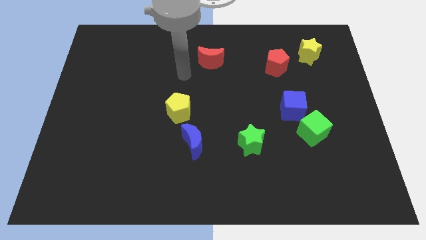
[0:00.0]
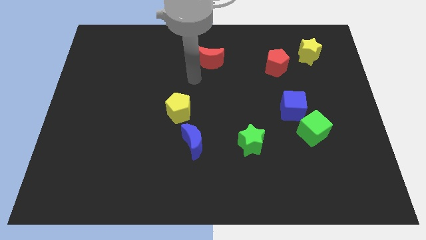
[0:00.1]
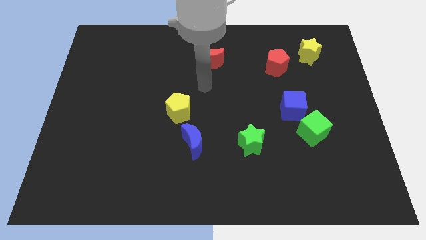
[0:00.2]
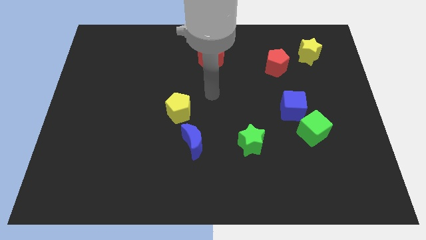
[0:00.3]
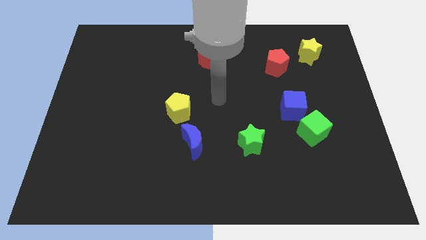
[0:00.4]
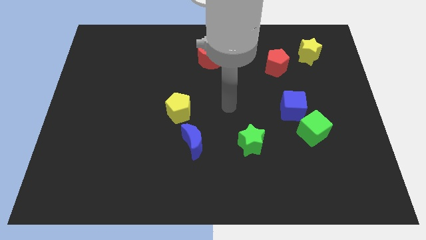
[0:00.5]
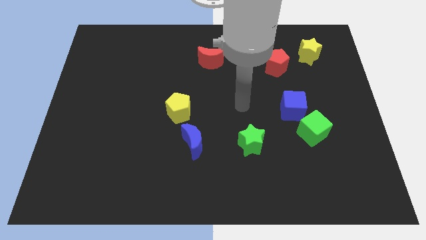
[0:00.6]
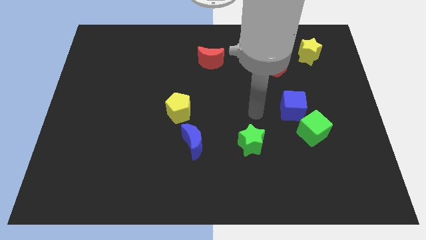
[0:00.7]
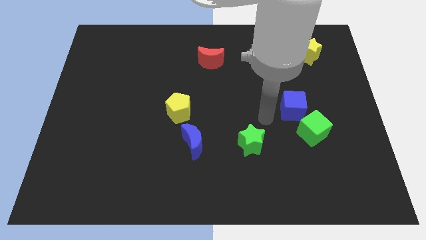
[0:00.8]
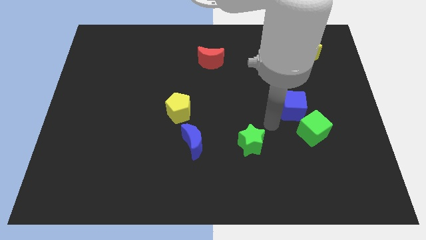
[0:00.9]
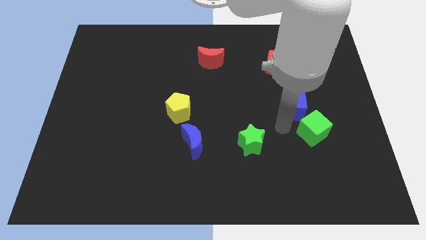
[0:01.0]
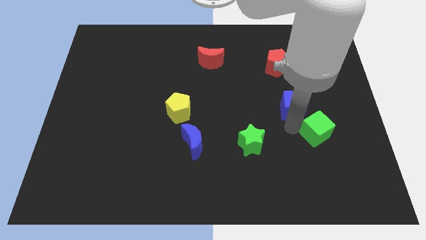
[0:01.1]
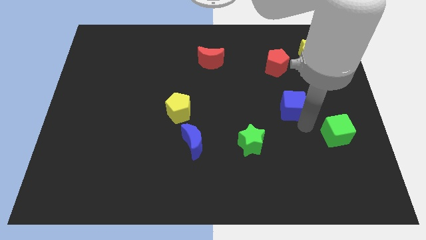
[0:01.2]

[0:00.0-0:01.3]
separate the blue cube from the green cube

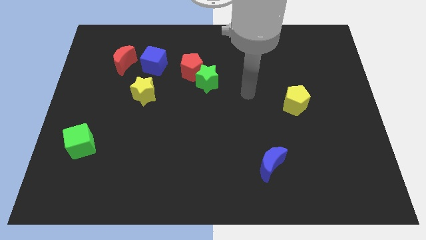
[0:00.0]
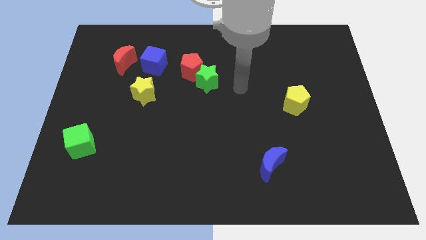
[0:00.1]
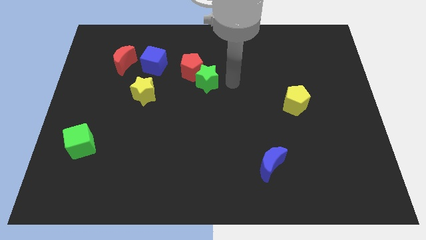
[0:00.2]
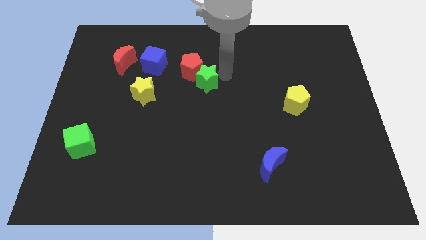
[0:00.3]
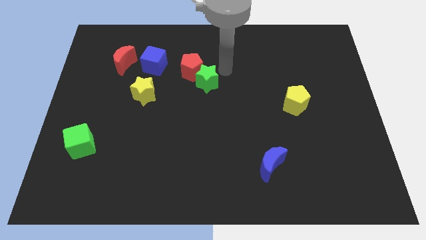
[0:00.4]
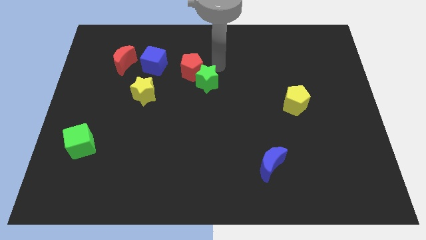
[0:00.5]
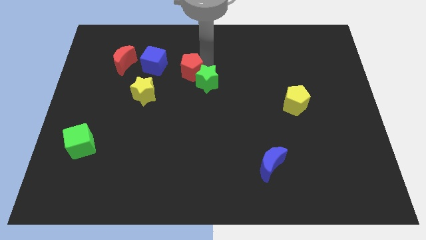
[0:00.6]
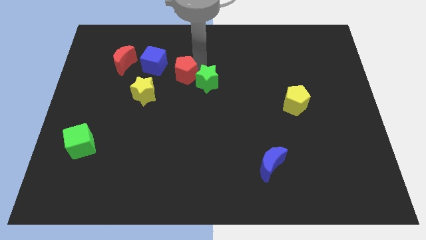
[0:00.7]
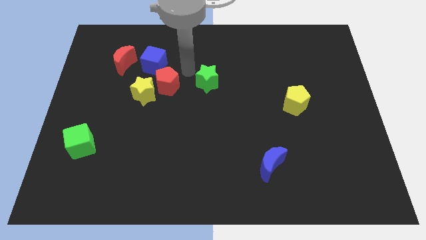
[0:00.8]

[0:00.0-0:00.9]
pull the green star apart from the red pentagon

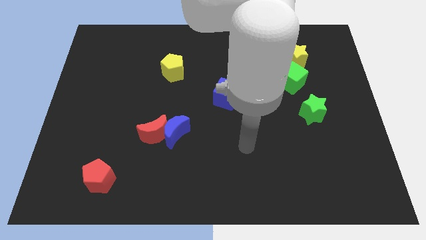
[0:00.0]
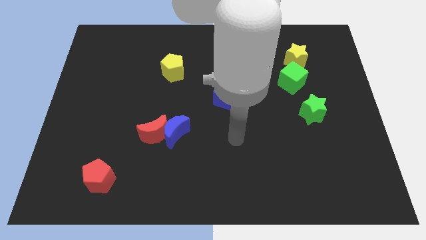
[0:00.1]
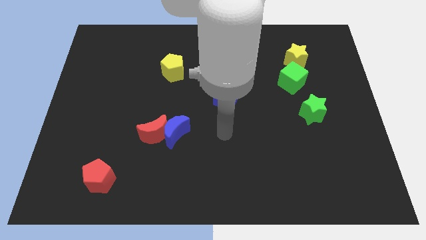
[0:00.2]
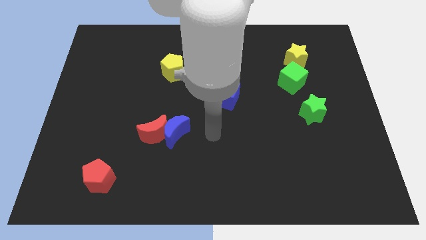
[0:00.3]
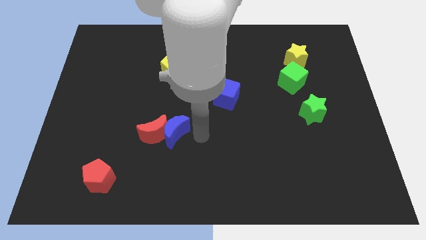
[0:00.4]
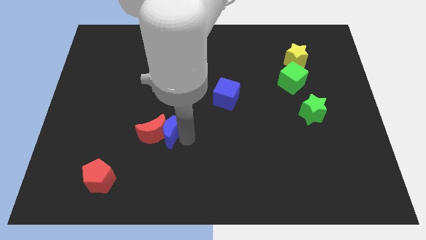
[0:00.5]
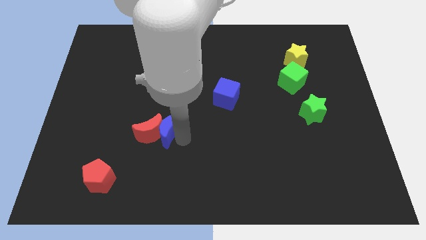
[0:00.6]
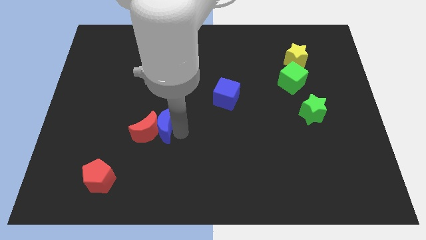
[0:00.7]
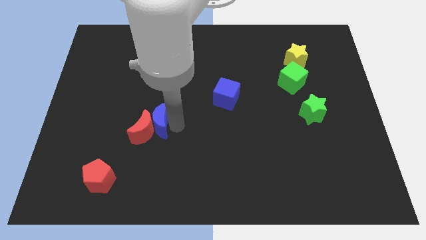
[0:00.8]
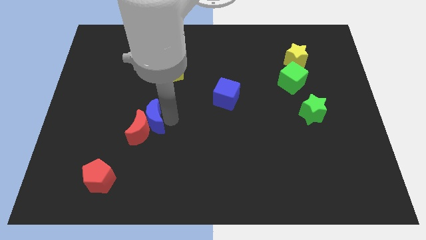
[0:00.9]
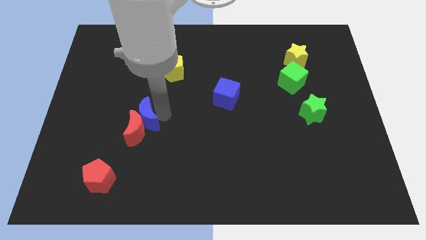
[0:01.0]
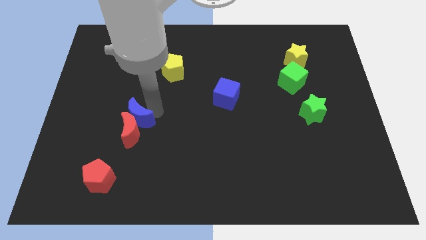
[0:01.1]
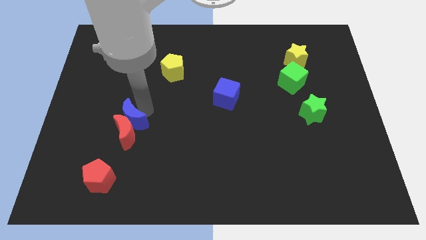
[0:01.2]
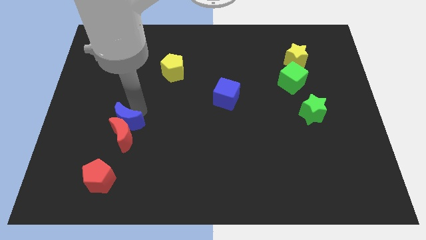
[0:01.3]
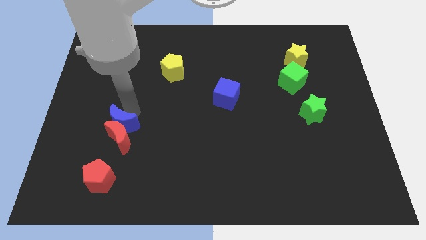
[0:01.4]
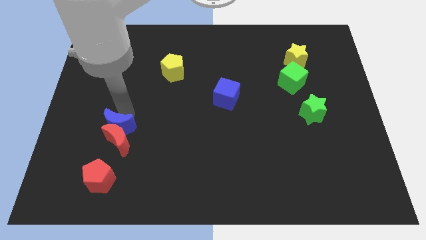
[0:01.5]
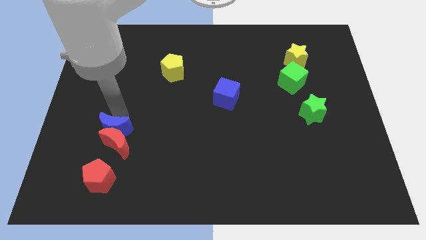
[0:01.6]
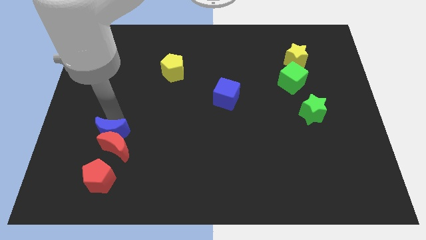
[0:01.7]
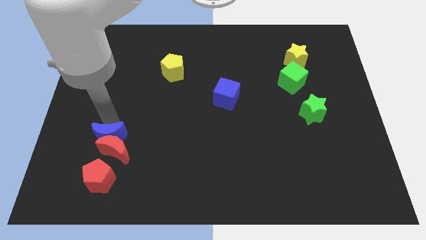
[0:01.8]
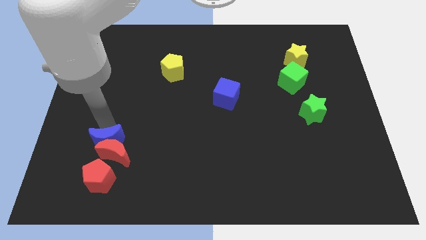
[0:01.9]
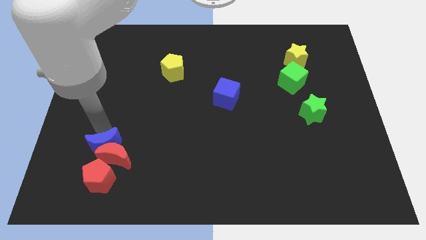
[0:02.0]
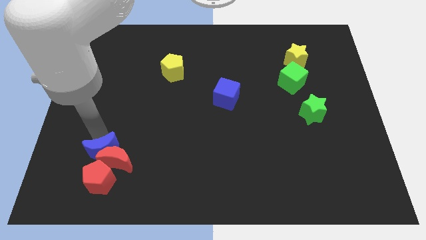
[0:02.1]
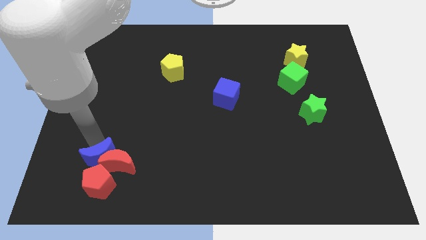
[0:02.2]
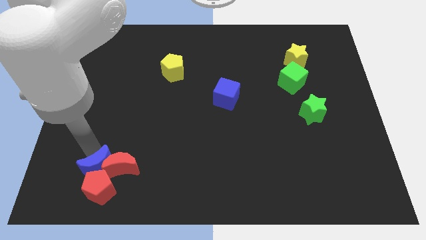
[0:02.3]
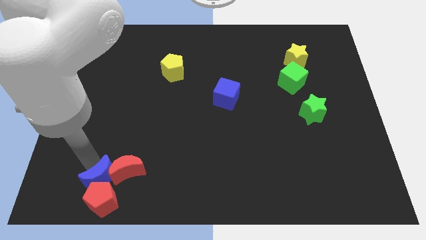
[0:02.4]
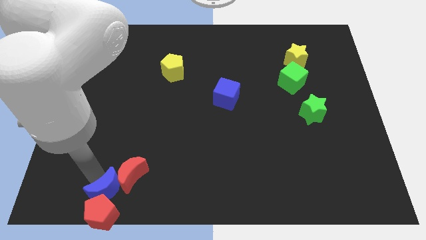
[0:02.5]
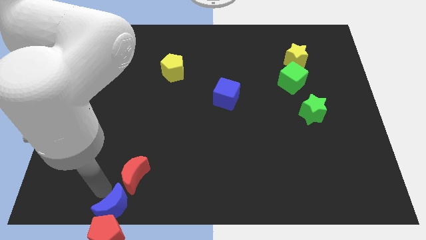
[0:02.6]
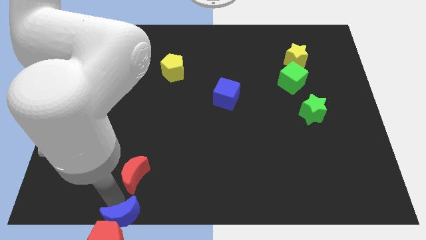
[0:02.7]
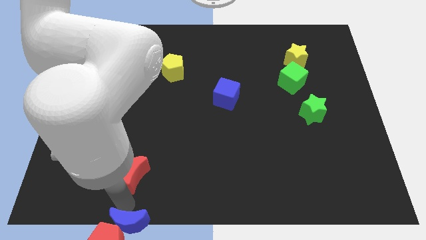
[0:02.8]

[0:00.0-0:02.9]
pull the red moon apart from the blue moon

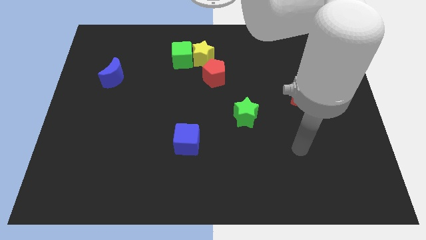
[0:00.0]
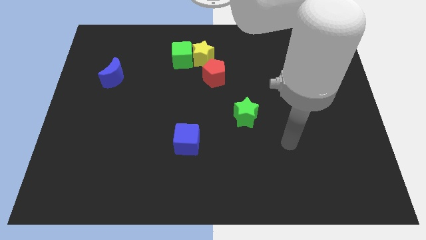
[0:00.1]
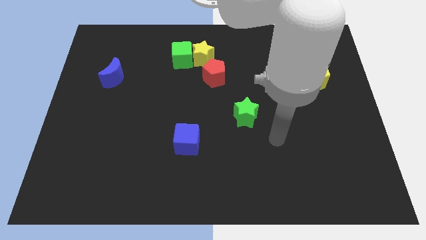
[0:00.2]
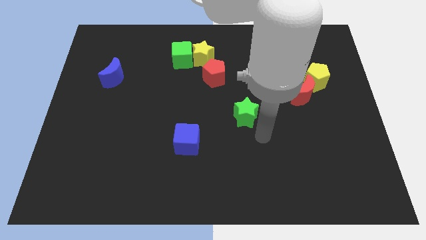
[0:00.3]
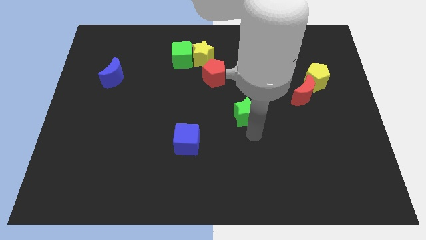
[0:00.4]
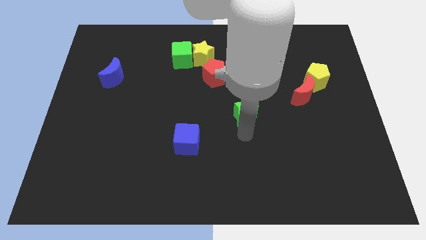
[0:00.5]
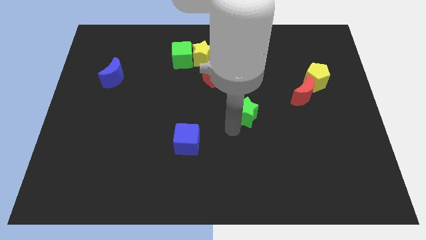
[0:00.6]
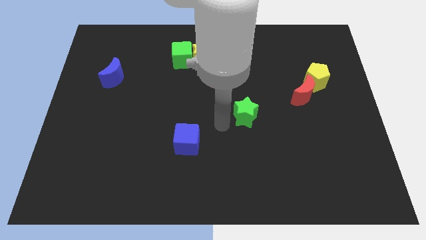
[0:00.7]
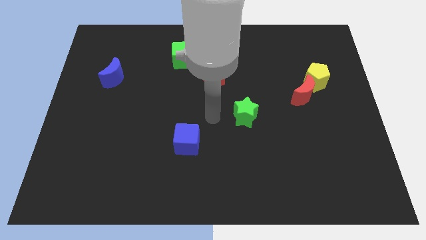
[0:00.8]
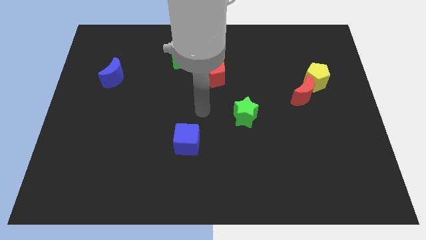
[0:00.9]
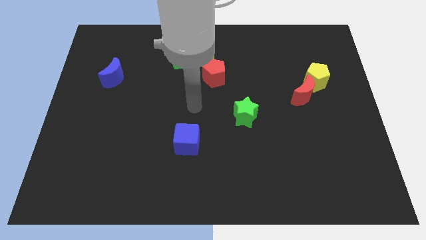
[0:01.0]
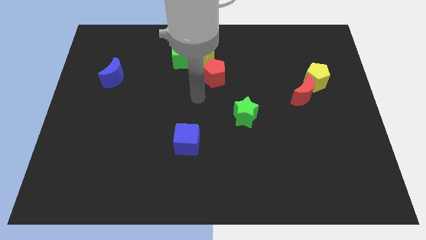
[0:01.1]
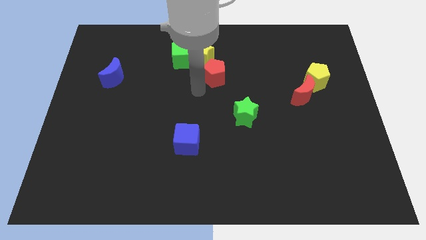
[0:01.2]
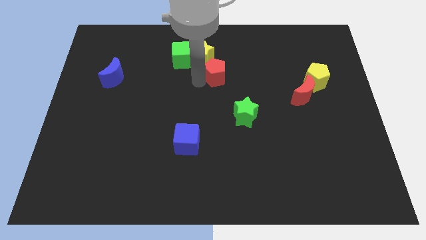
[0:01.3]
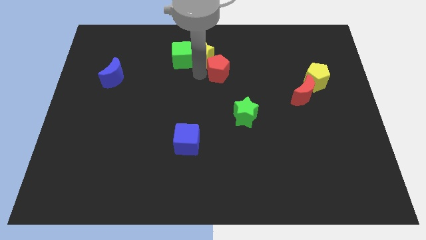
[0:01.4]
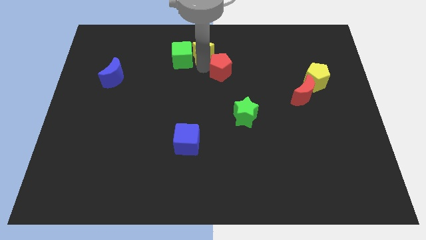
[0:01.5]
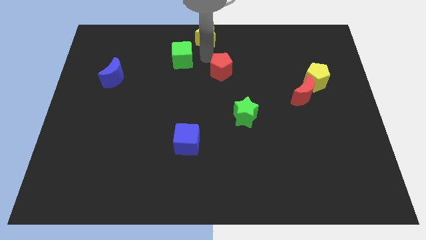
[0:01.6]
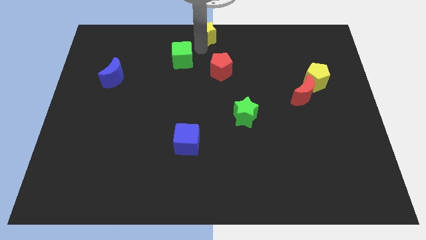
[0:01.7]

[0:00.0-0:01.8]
move the green cube away from the yellow star

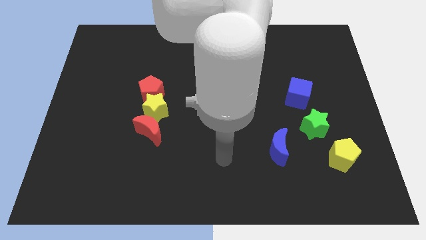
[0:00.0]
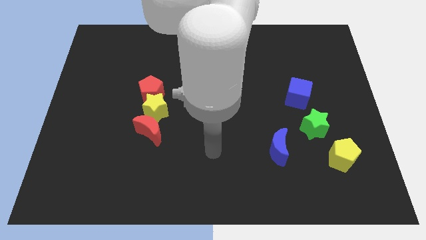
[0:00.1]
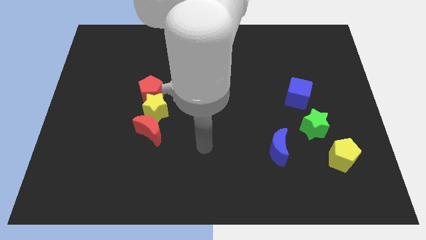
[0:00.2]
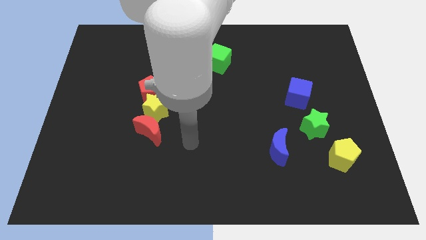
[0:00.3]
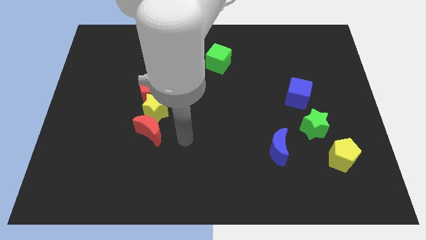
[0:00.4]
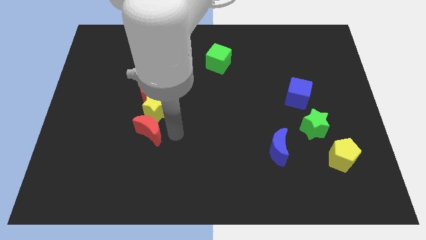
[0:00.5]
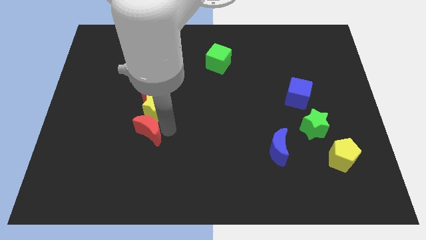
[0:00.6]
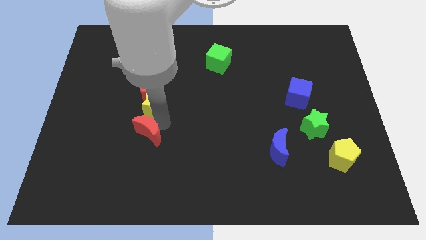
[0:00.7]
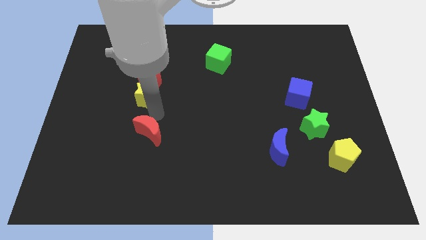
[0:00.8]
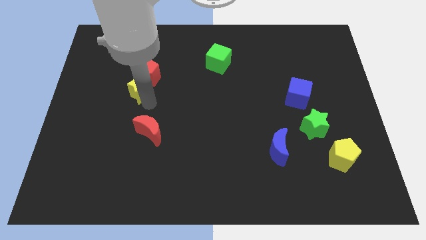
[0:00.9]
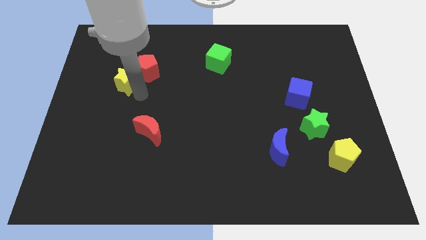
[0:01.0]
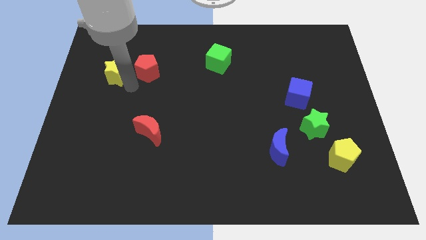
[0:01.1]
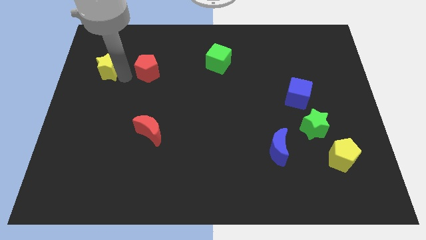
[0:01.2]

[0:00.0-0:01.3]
move the red pentagon away from the yellow star

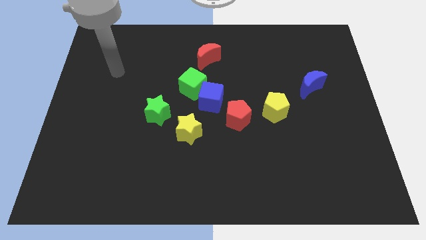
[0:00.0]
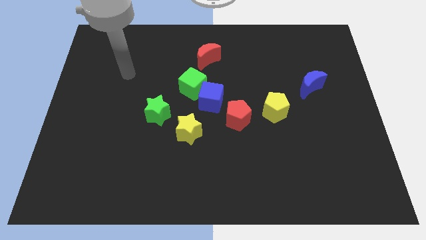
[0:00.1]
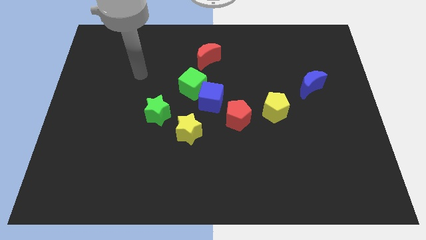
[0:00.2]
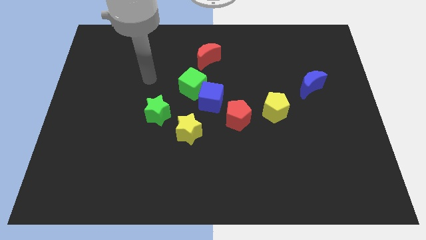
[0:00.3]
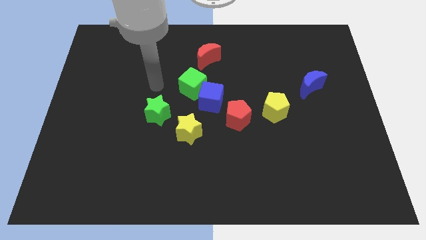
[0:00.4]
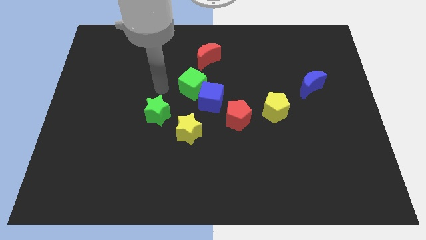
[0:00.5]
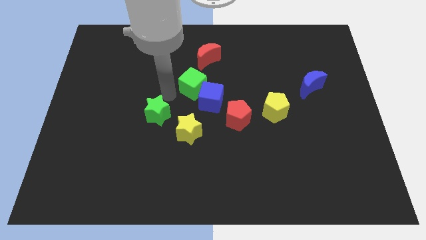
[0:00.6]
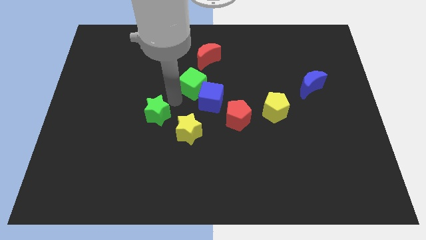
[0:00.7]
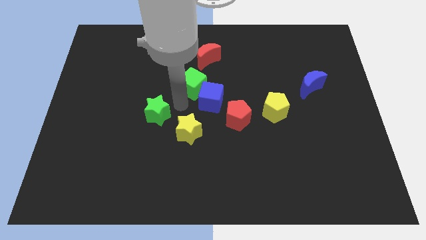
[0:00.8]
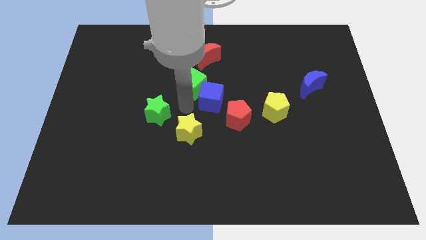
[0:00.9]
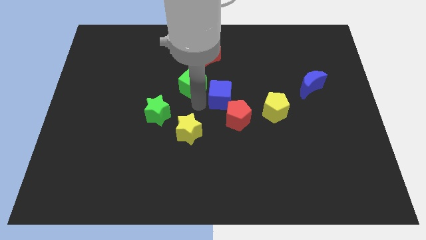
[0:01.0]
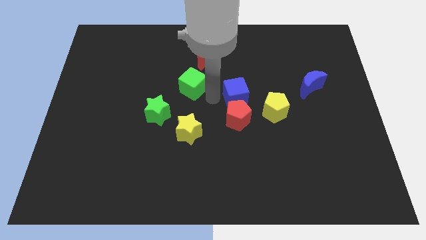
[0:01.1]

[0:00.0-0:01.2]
move the green cube away from the blue cube
